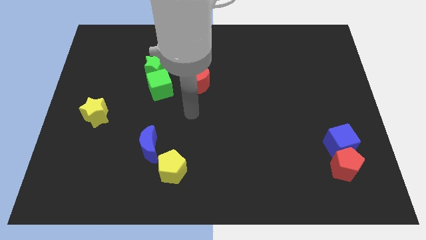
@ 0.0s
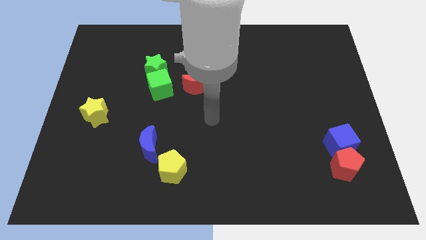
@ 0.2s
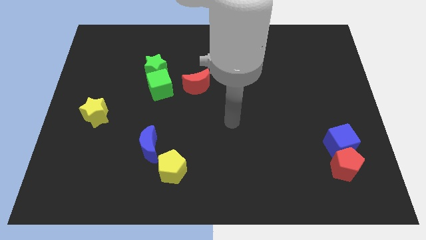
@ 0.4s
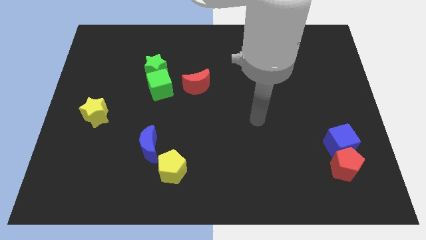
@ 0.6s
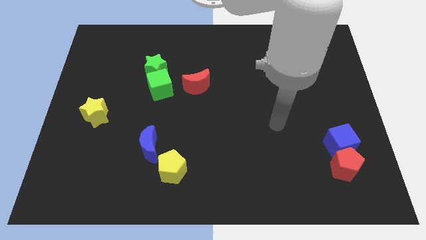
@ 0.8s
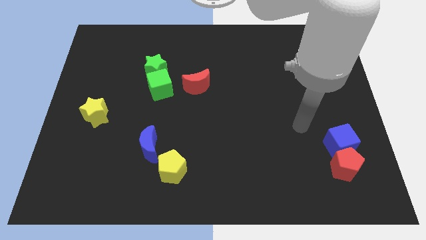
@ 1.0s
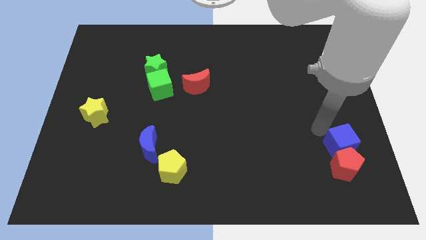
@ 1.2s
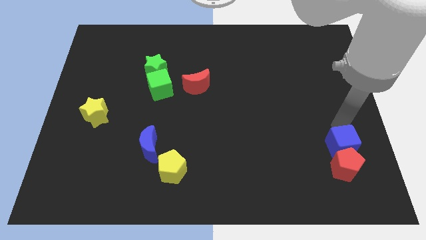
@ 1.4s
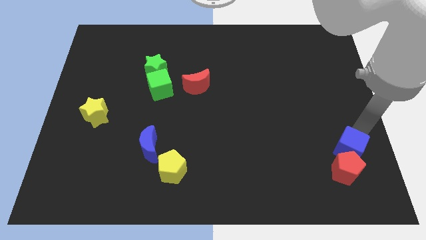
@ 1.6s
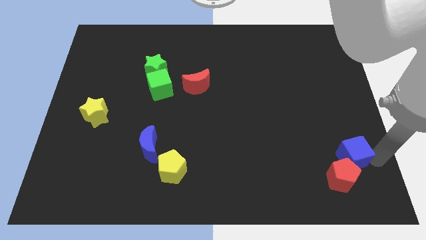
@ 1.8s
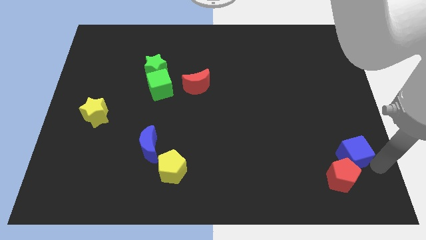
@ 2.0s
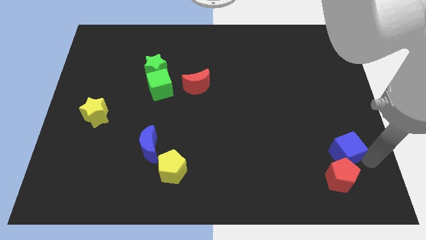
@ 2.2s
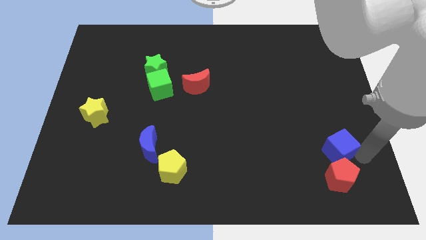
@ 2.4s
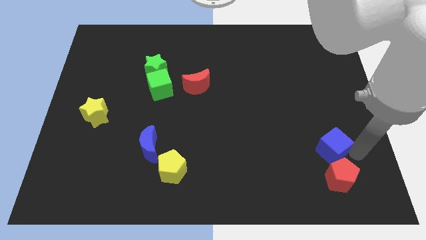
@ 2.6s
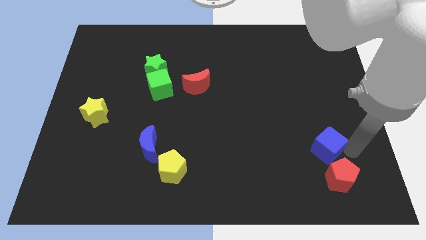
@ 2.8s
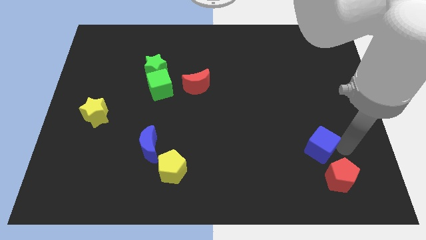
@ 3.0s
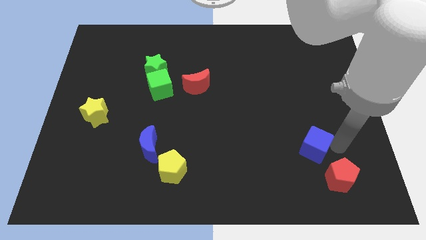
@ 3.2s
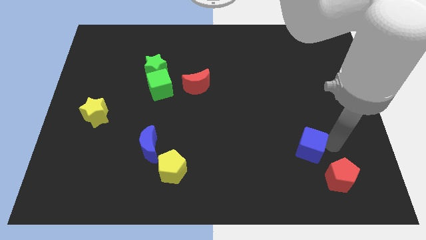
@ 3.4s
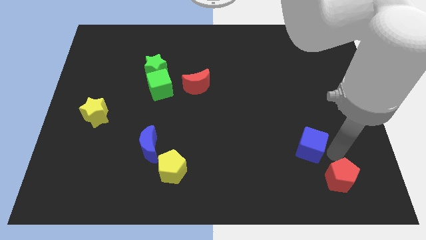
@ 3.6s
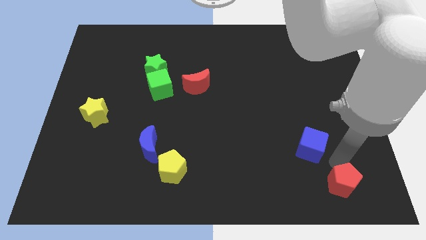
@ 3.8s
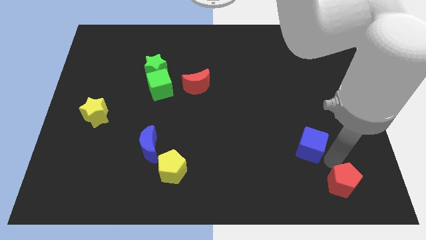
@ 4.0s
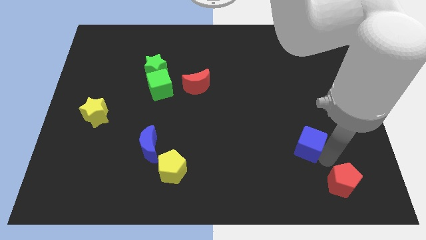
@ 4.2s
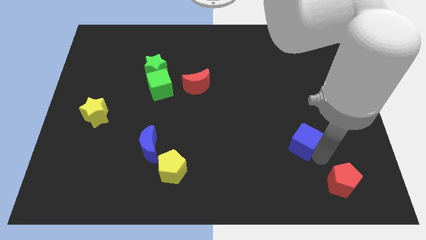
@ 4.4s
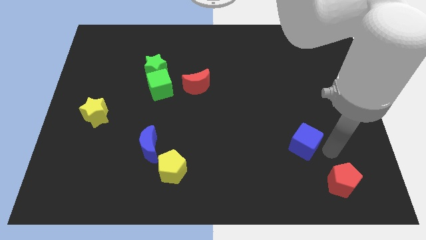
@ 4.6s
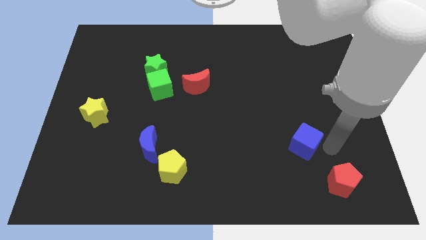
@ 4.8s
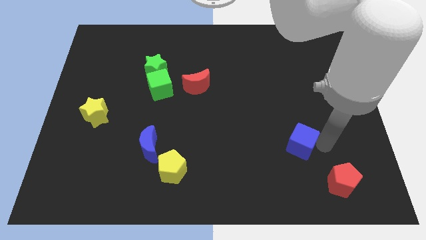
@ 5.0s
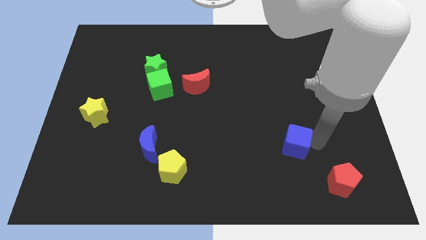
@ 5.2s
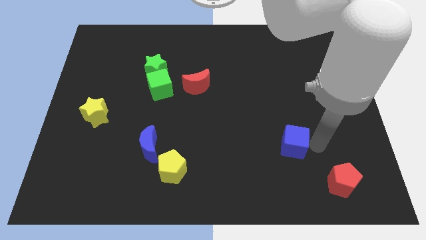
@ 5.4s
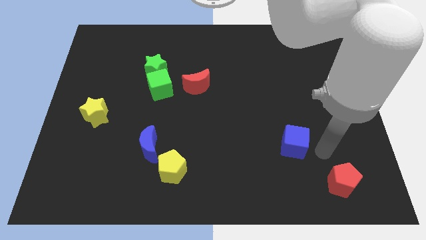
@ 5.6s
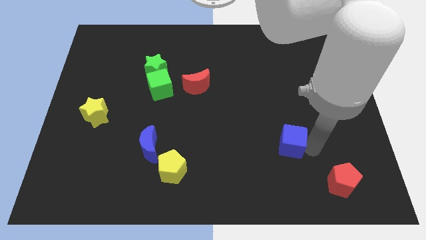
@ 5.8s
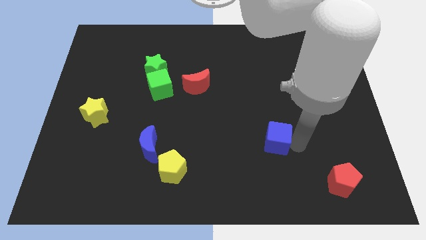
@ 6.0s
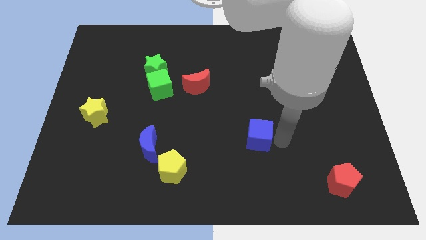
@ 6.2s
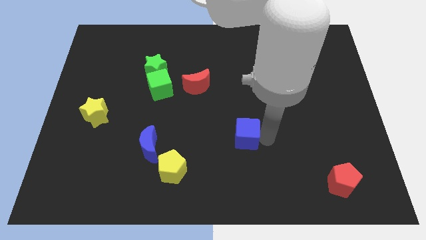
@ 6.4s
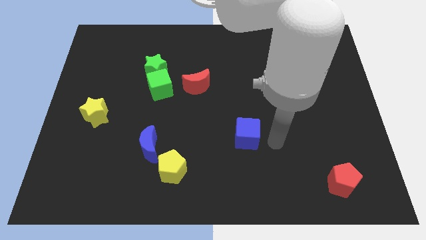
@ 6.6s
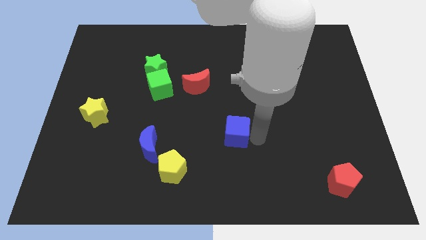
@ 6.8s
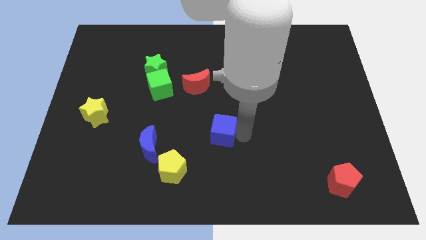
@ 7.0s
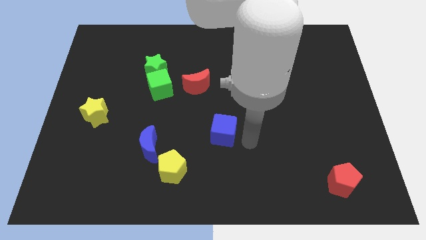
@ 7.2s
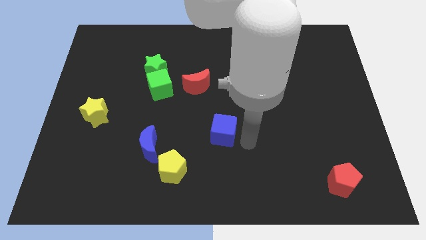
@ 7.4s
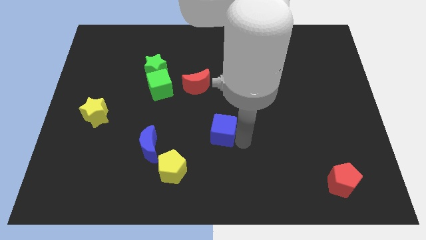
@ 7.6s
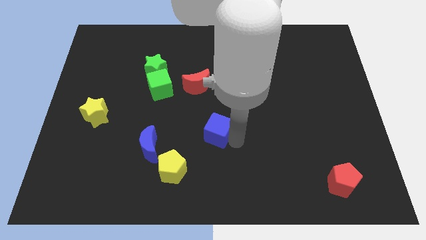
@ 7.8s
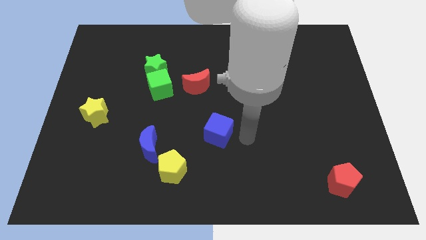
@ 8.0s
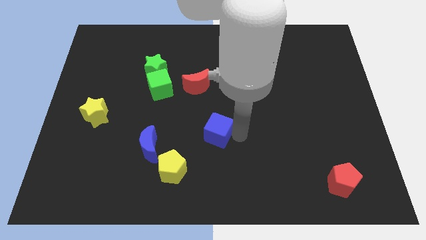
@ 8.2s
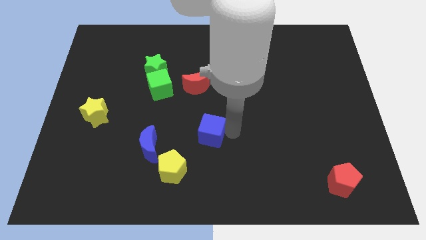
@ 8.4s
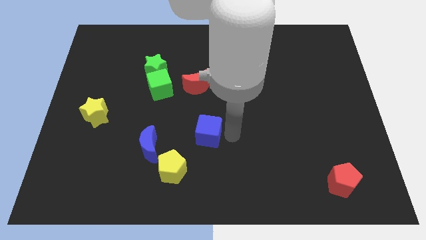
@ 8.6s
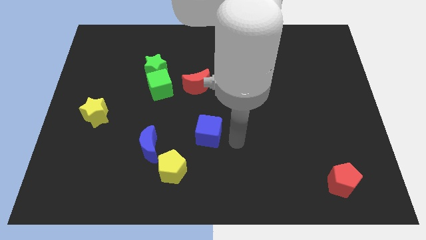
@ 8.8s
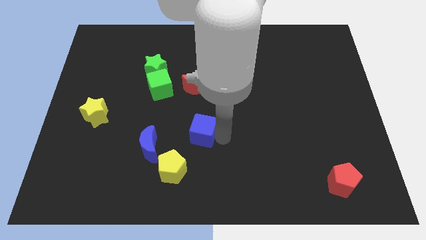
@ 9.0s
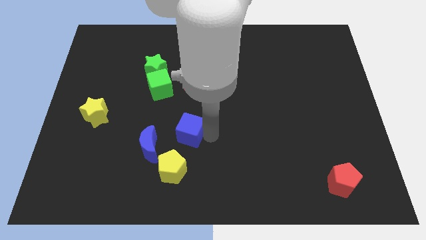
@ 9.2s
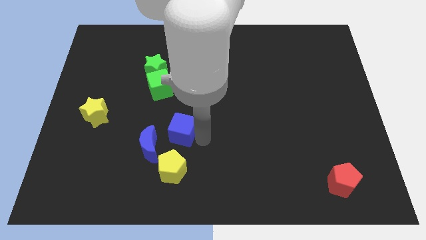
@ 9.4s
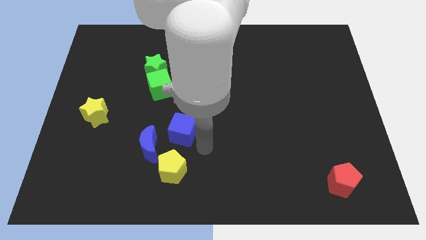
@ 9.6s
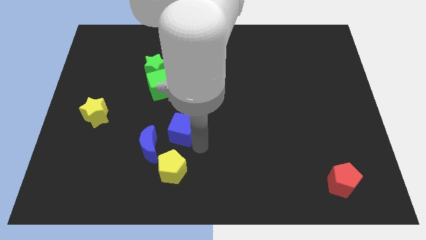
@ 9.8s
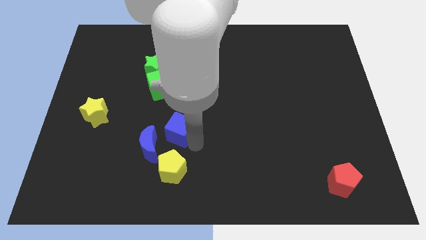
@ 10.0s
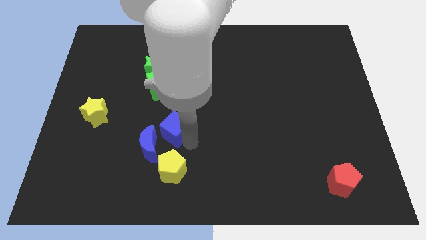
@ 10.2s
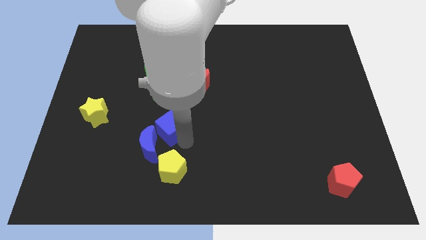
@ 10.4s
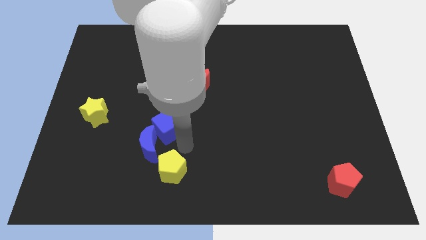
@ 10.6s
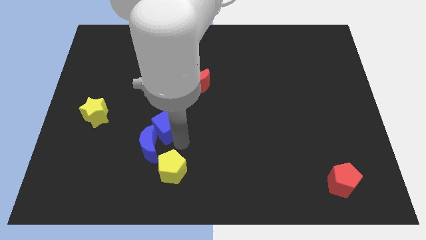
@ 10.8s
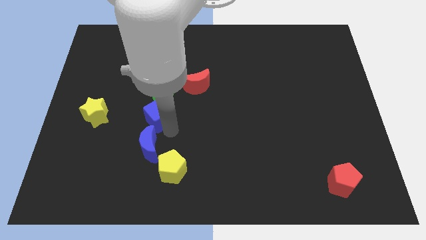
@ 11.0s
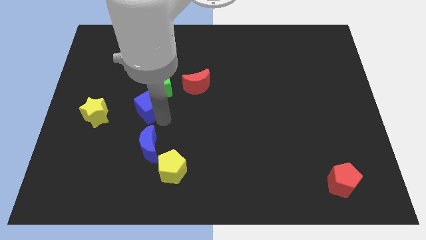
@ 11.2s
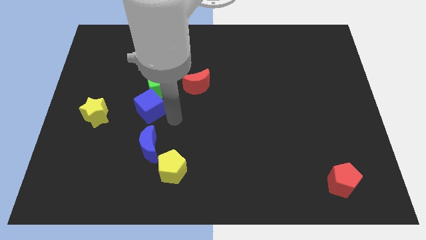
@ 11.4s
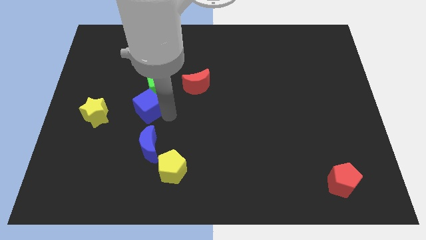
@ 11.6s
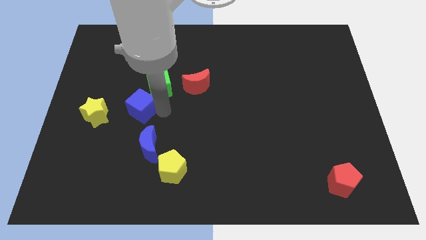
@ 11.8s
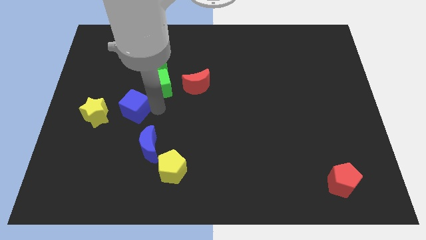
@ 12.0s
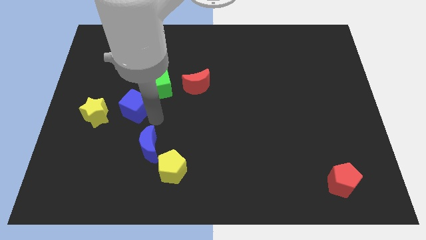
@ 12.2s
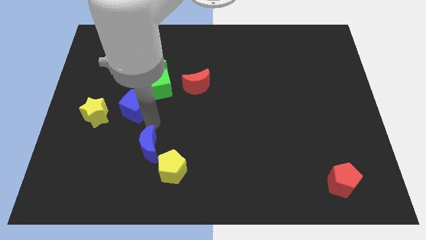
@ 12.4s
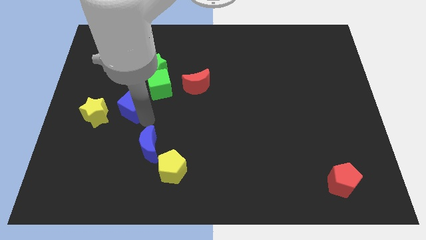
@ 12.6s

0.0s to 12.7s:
put the blue cube to the top right of the yellow star

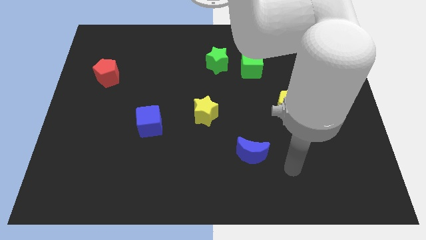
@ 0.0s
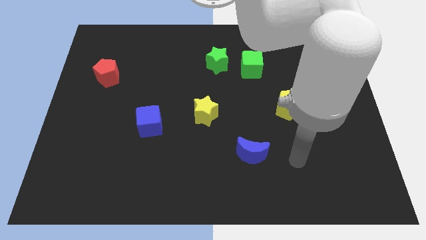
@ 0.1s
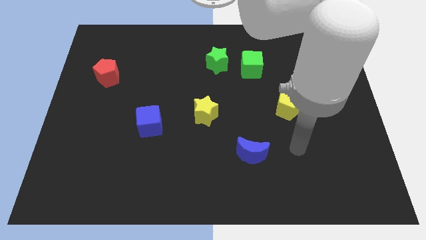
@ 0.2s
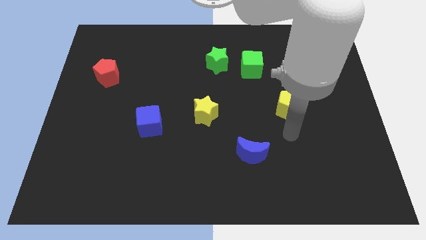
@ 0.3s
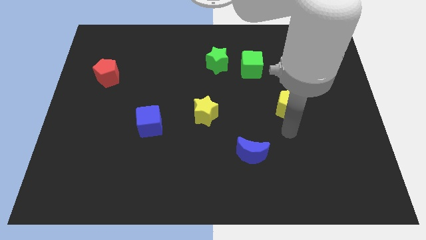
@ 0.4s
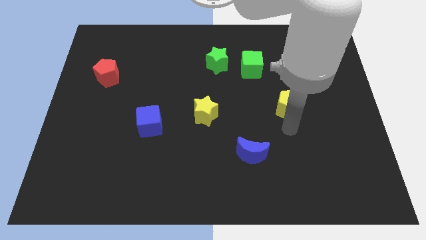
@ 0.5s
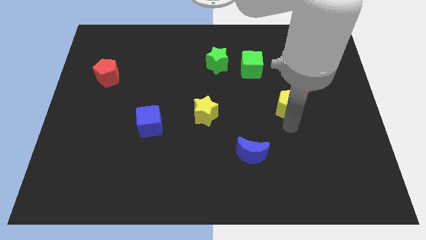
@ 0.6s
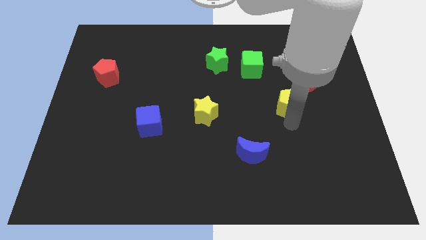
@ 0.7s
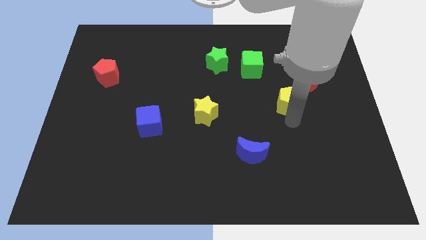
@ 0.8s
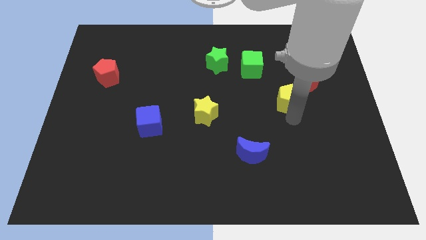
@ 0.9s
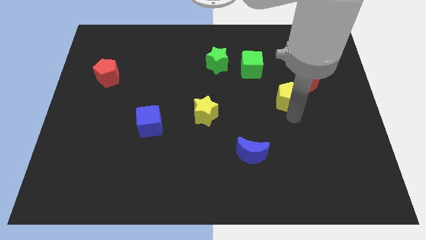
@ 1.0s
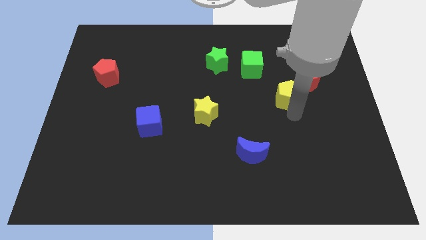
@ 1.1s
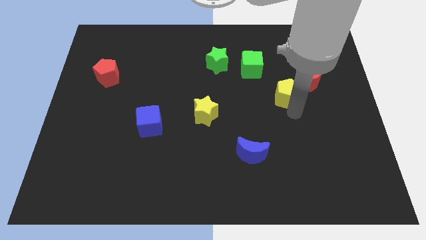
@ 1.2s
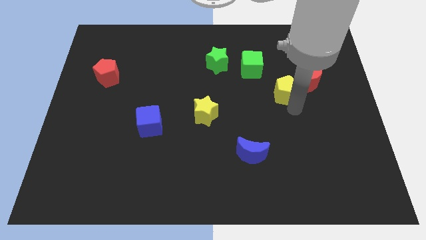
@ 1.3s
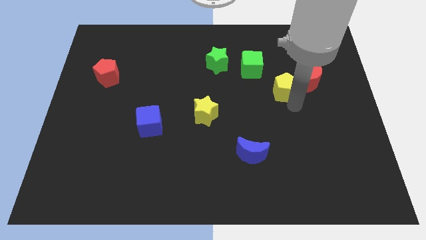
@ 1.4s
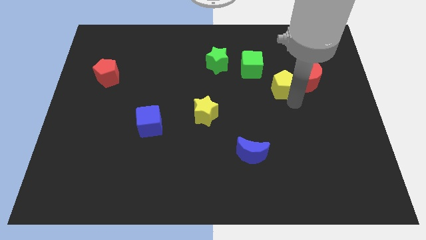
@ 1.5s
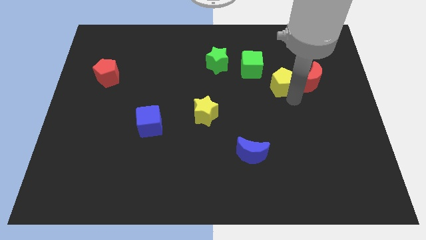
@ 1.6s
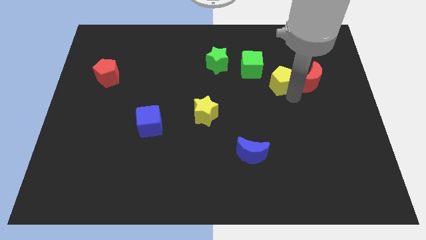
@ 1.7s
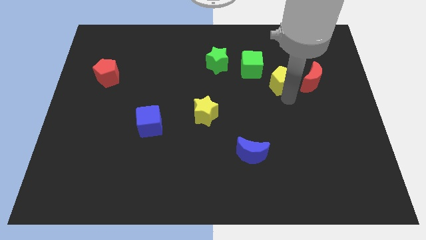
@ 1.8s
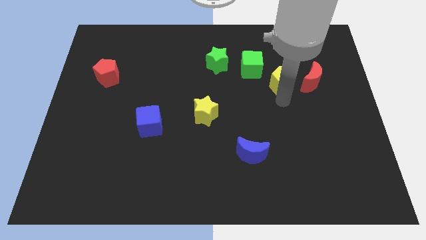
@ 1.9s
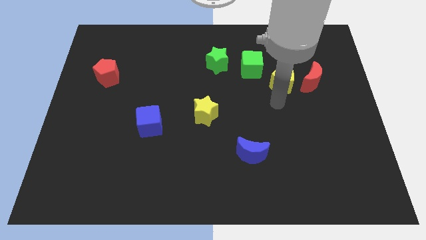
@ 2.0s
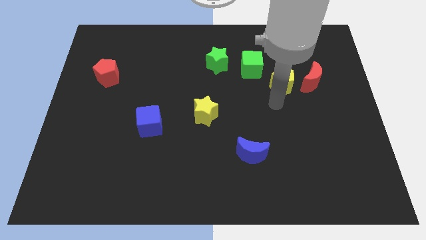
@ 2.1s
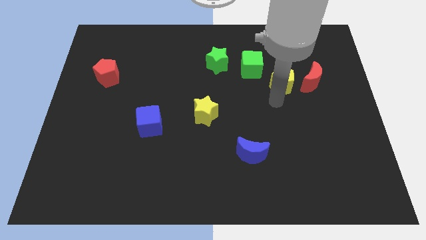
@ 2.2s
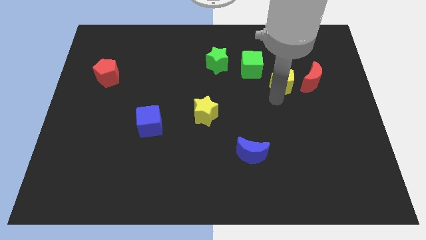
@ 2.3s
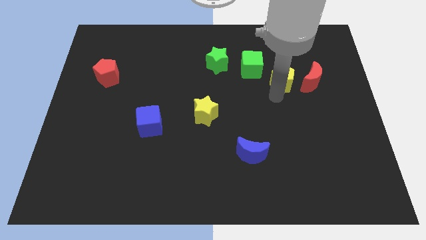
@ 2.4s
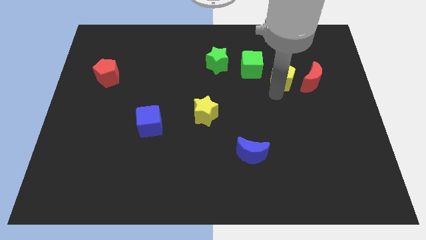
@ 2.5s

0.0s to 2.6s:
move the yellow pentagon to the top left of the red moon
